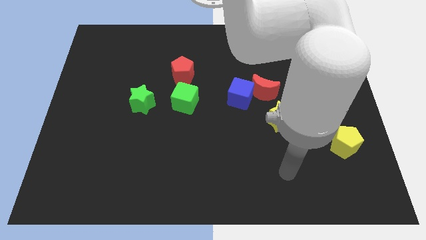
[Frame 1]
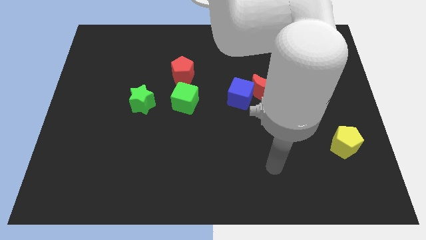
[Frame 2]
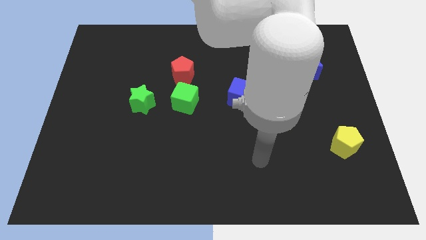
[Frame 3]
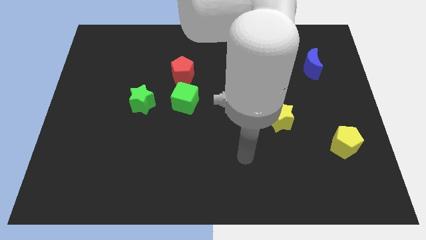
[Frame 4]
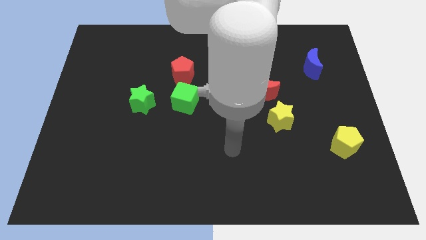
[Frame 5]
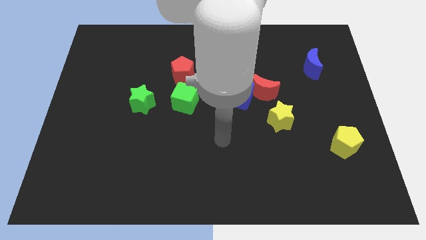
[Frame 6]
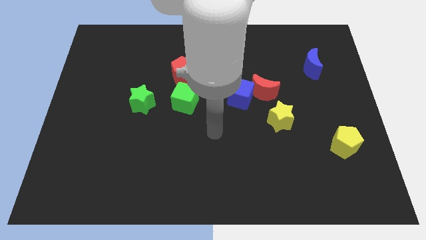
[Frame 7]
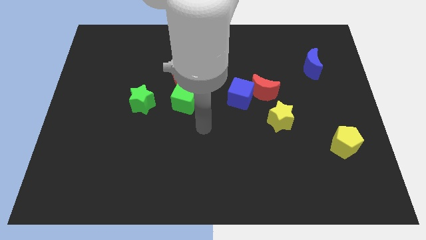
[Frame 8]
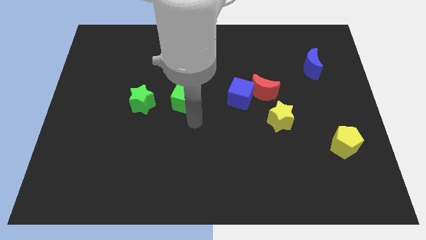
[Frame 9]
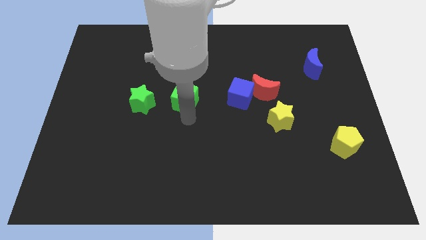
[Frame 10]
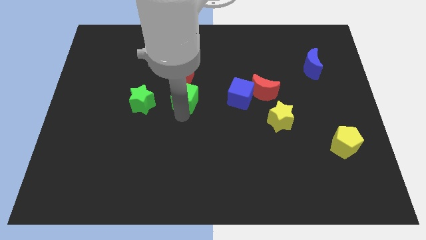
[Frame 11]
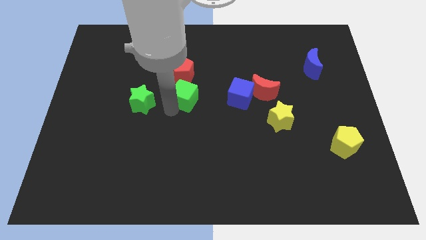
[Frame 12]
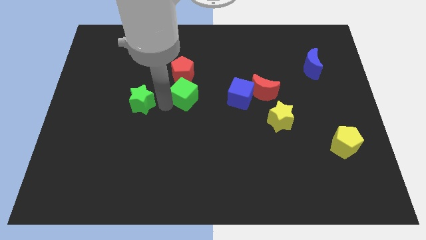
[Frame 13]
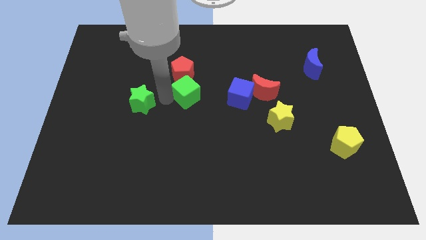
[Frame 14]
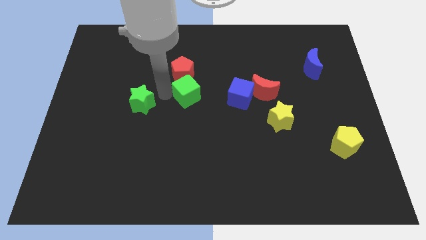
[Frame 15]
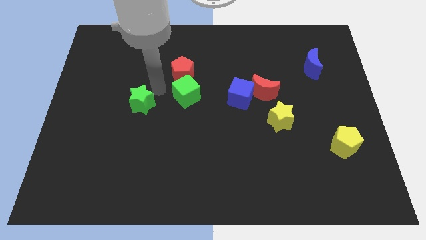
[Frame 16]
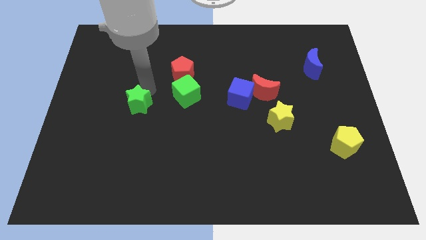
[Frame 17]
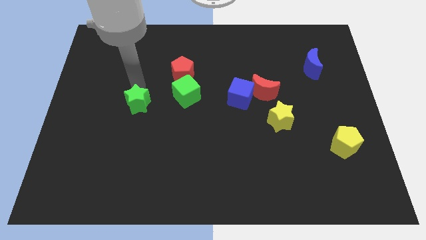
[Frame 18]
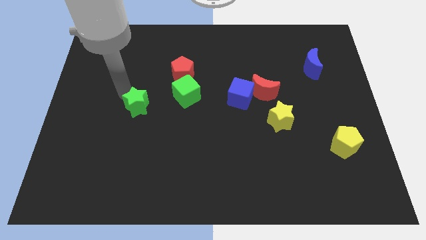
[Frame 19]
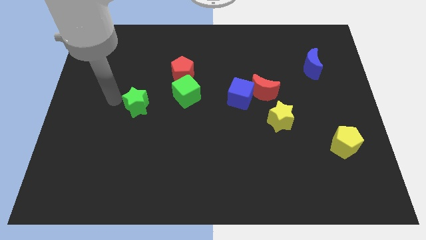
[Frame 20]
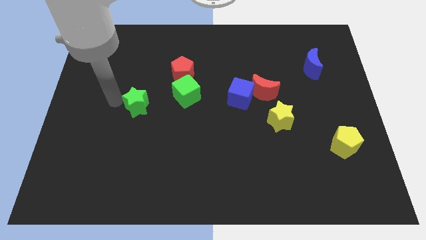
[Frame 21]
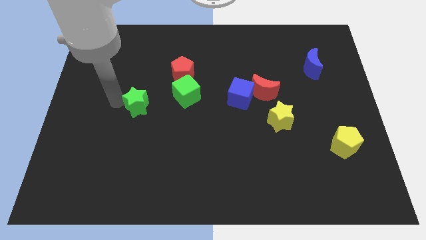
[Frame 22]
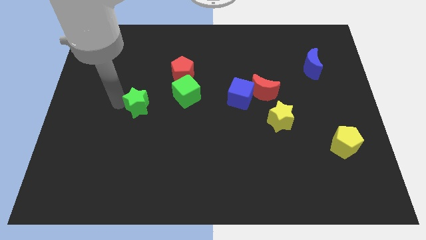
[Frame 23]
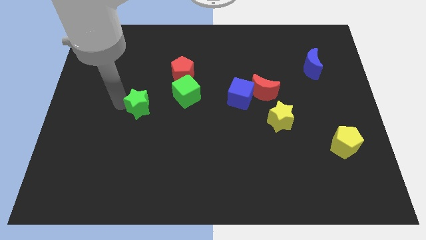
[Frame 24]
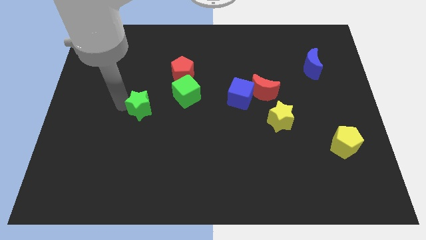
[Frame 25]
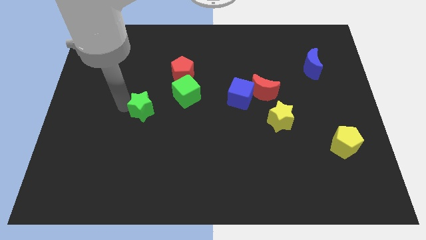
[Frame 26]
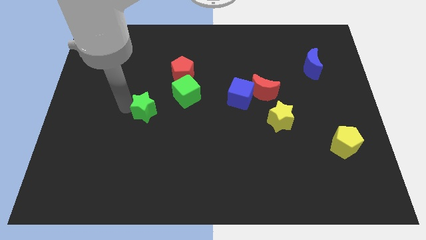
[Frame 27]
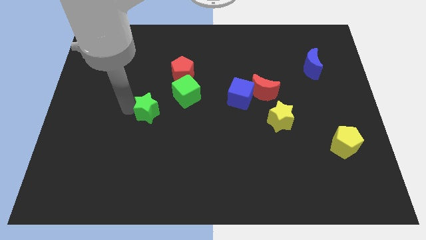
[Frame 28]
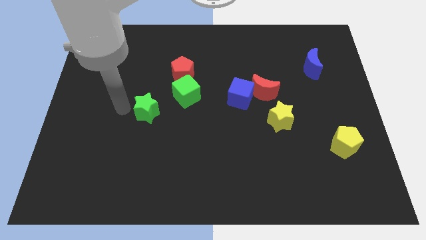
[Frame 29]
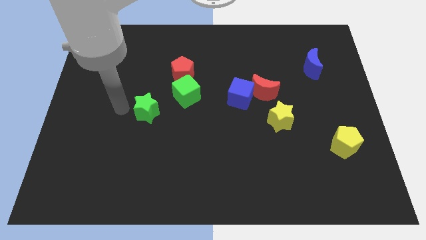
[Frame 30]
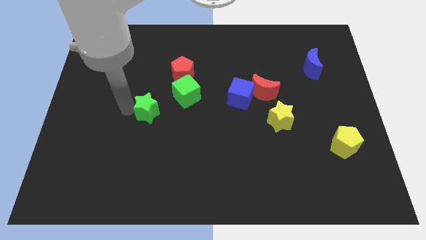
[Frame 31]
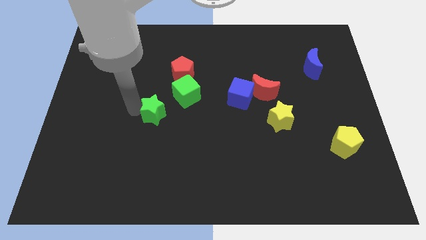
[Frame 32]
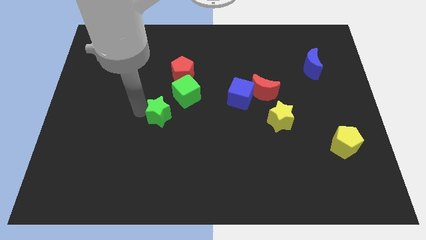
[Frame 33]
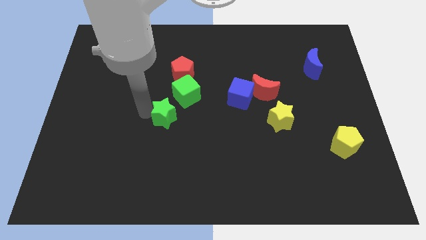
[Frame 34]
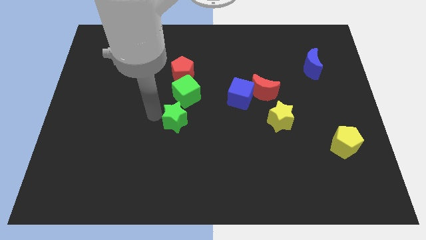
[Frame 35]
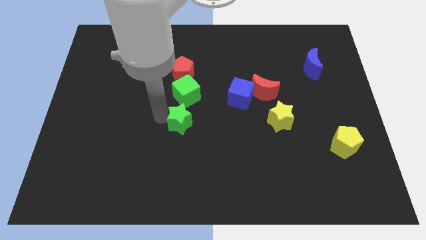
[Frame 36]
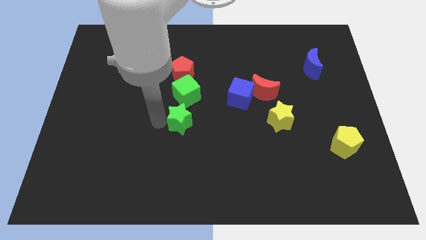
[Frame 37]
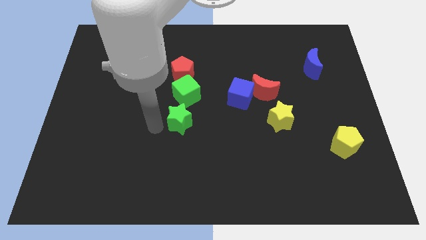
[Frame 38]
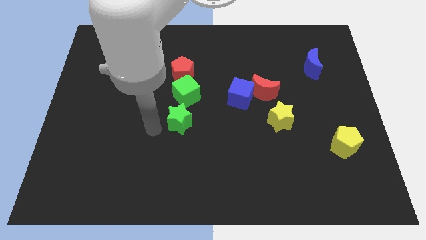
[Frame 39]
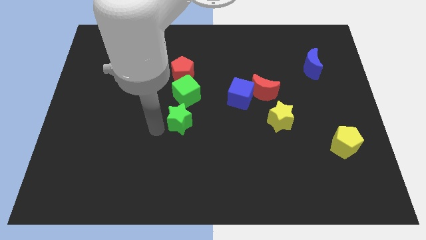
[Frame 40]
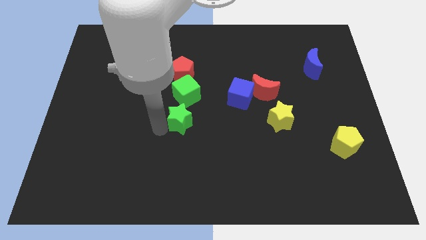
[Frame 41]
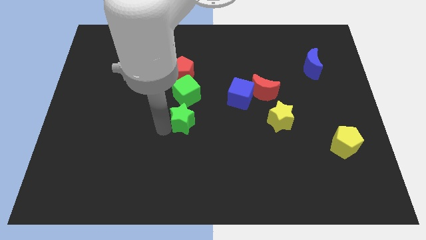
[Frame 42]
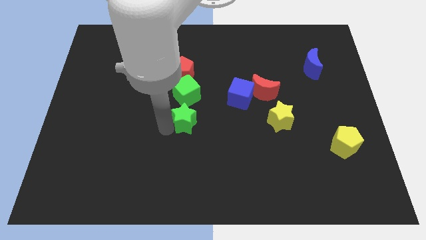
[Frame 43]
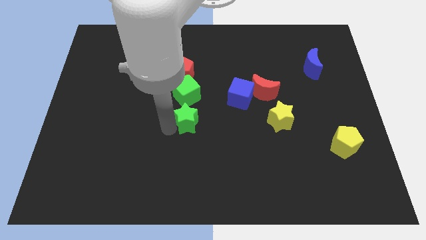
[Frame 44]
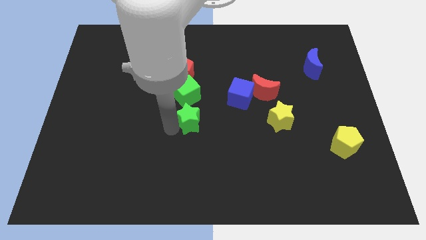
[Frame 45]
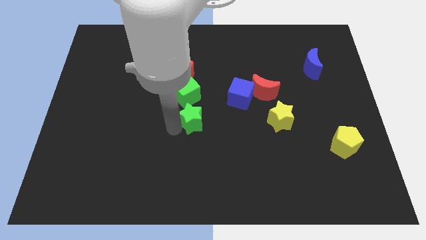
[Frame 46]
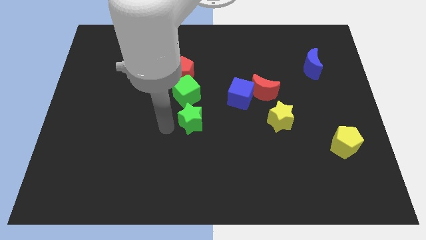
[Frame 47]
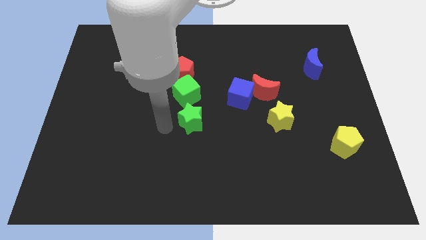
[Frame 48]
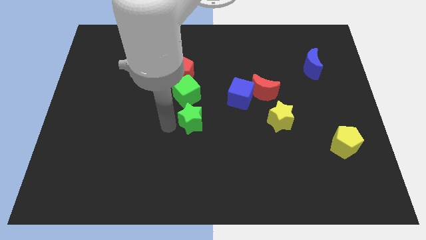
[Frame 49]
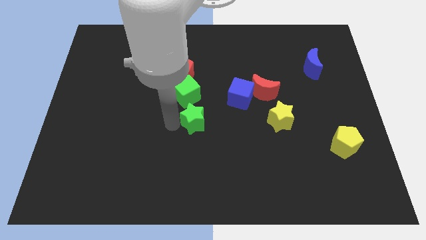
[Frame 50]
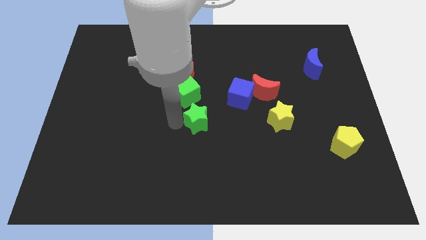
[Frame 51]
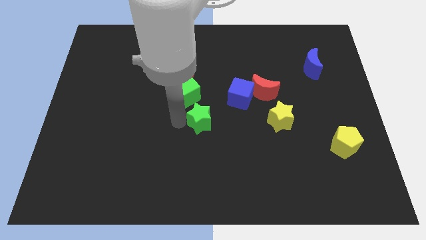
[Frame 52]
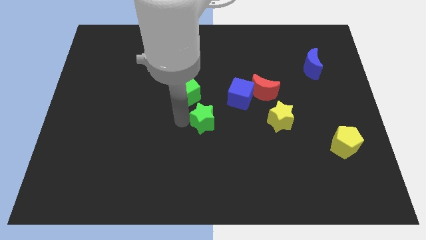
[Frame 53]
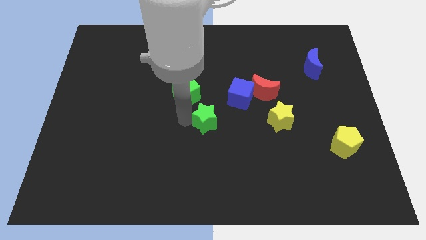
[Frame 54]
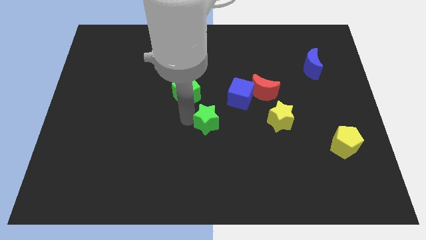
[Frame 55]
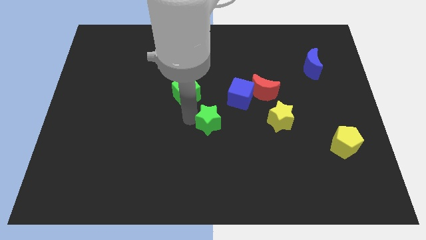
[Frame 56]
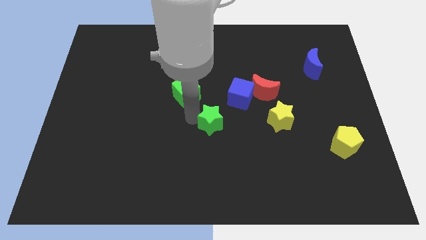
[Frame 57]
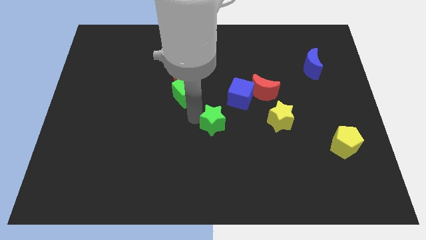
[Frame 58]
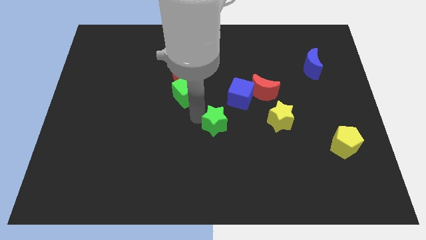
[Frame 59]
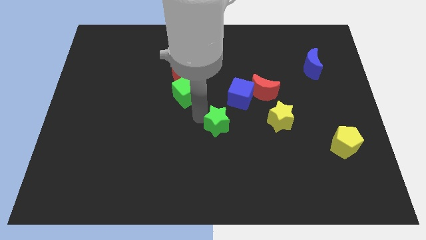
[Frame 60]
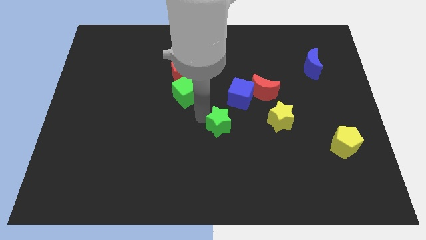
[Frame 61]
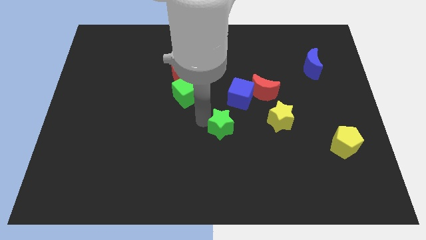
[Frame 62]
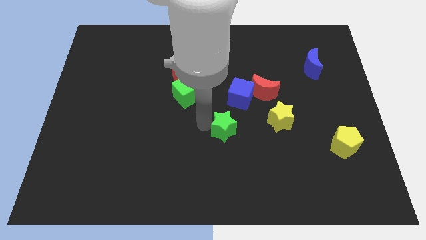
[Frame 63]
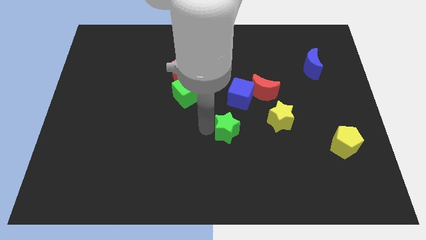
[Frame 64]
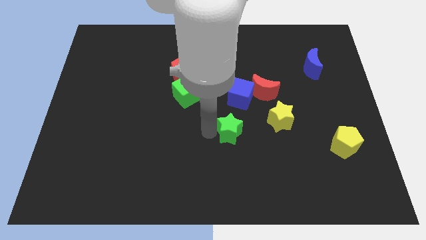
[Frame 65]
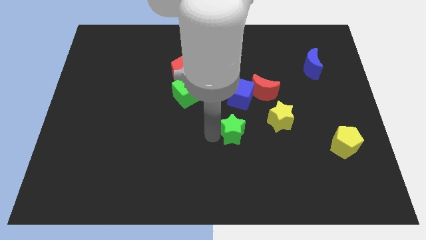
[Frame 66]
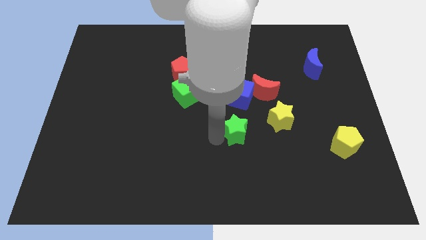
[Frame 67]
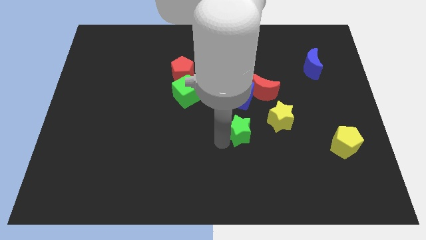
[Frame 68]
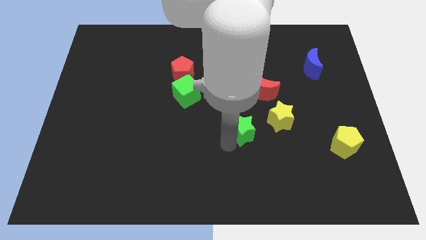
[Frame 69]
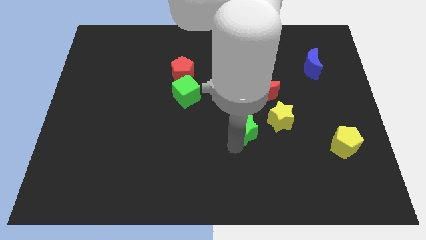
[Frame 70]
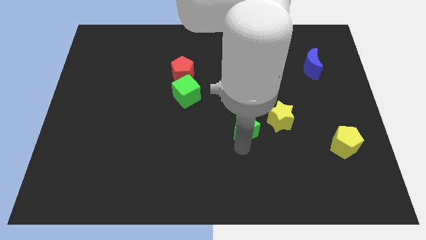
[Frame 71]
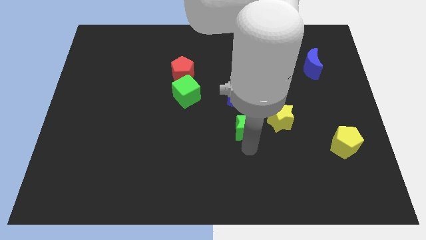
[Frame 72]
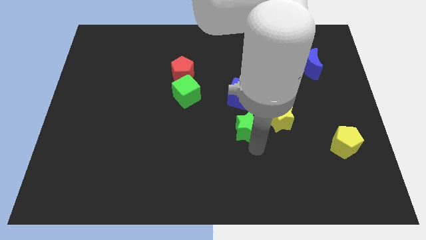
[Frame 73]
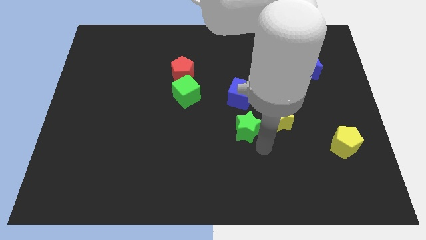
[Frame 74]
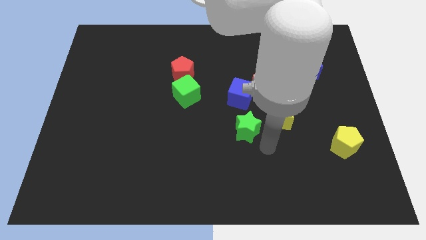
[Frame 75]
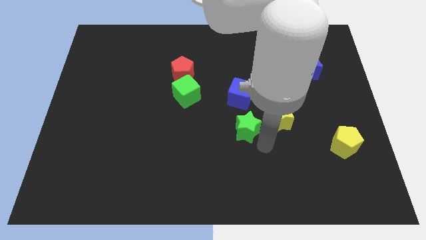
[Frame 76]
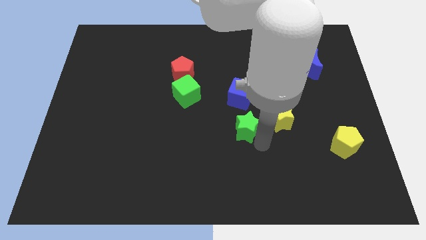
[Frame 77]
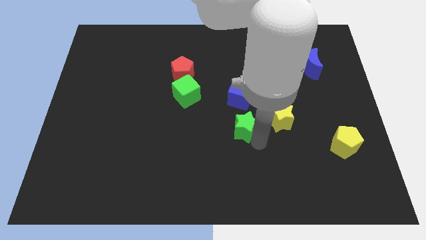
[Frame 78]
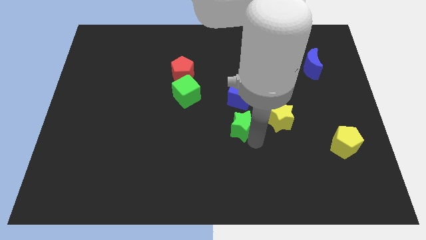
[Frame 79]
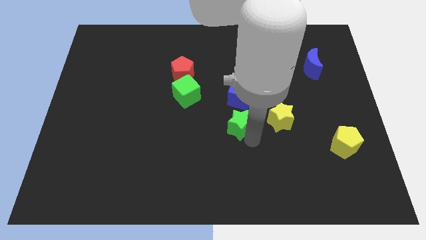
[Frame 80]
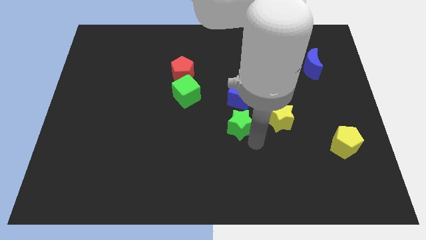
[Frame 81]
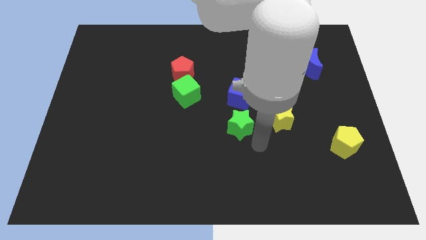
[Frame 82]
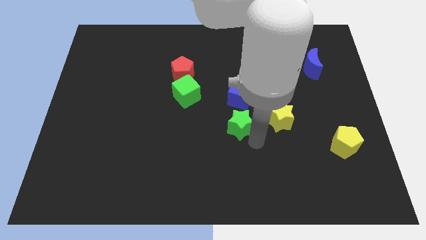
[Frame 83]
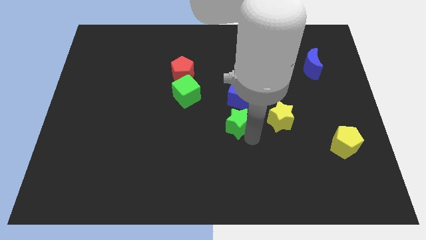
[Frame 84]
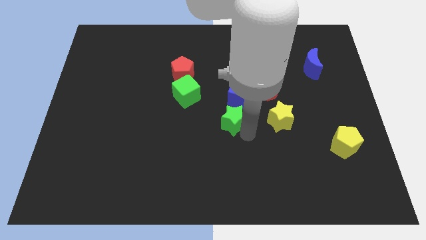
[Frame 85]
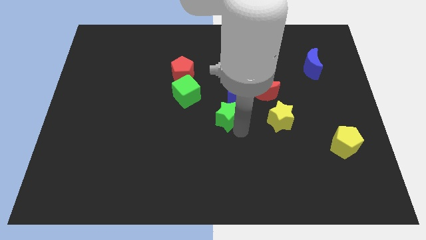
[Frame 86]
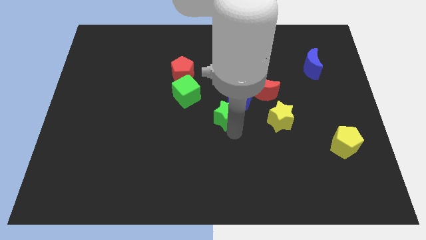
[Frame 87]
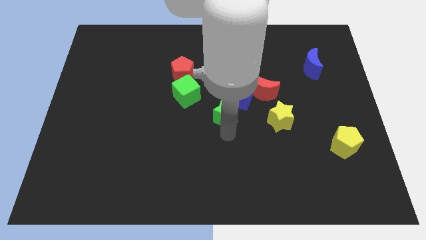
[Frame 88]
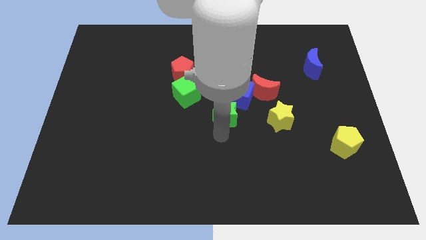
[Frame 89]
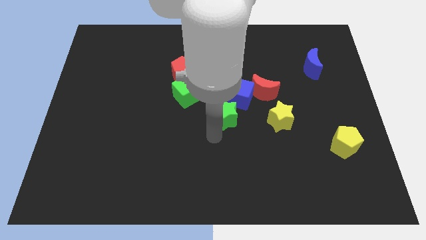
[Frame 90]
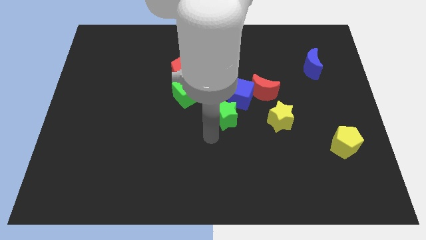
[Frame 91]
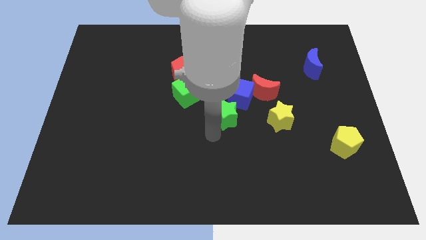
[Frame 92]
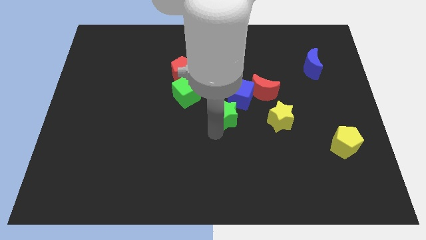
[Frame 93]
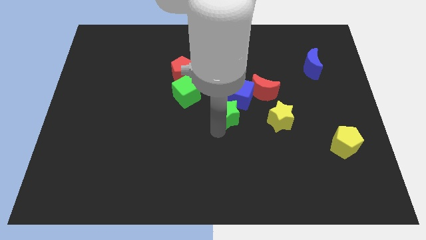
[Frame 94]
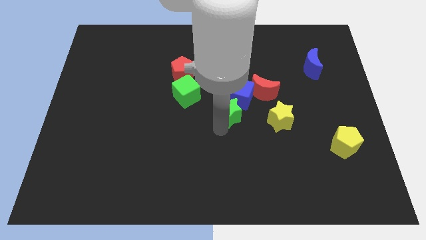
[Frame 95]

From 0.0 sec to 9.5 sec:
slide the green star close to the blue cube
